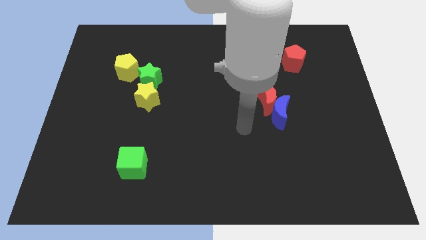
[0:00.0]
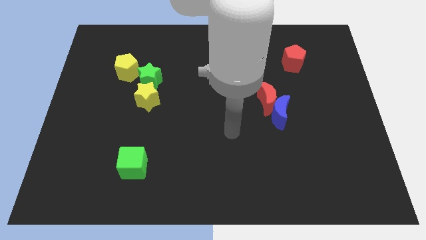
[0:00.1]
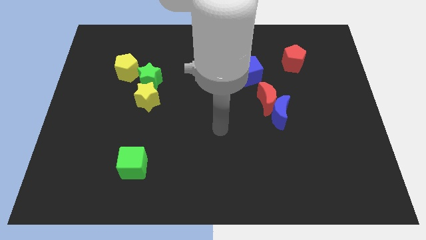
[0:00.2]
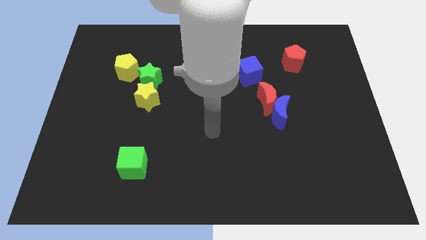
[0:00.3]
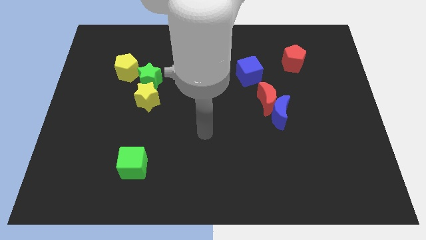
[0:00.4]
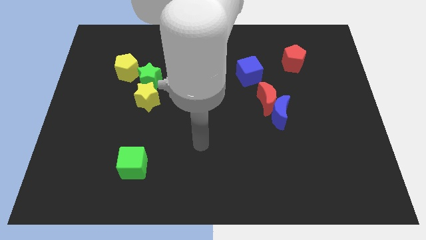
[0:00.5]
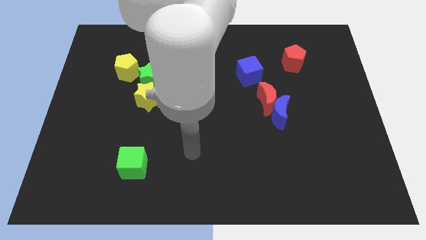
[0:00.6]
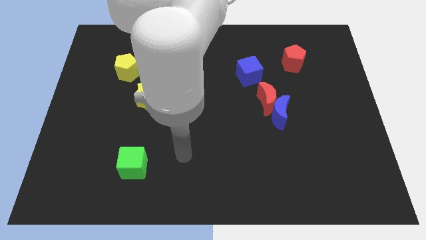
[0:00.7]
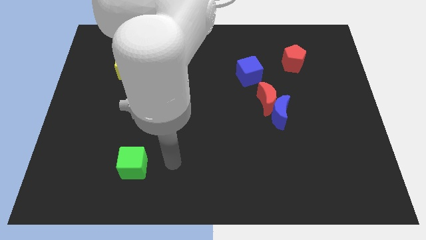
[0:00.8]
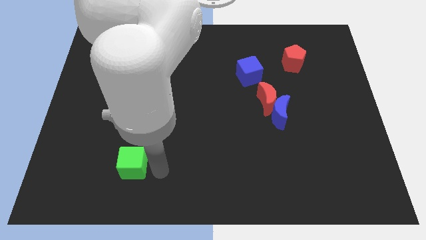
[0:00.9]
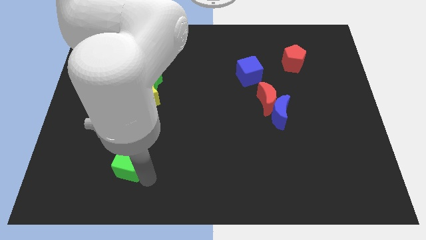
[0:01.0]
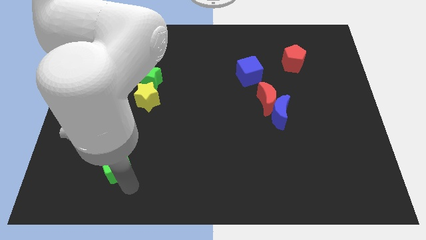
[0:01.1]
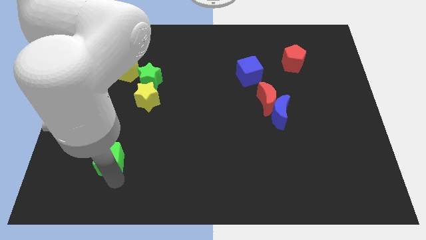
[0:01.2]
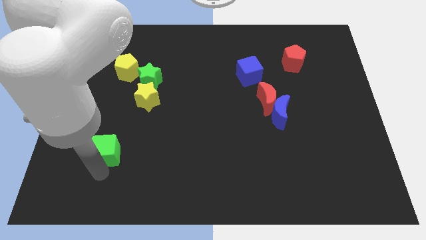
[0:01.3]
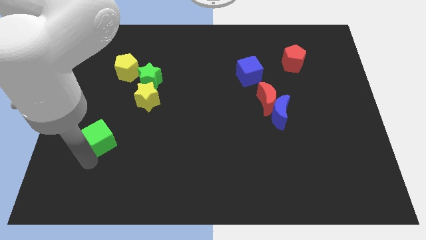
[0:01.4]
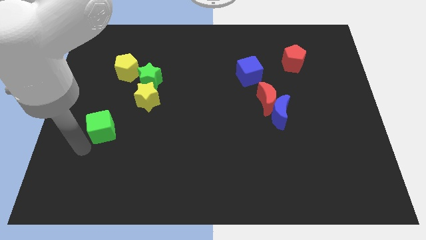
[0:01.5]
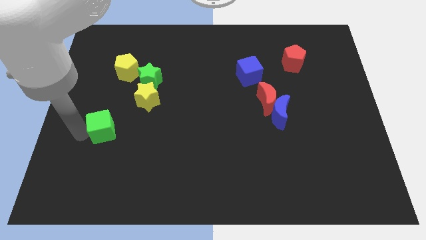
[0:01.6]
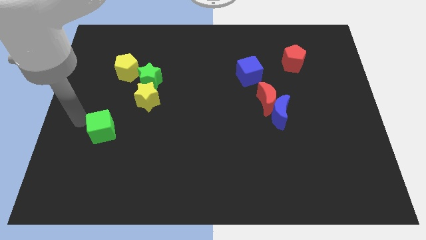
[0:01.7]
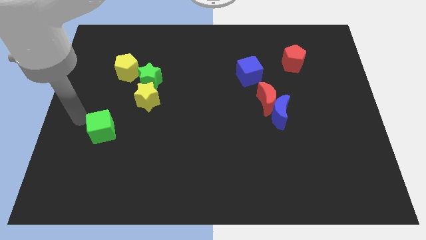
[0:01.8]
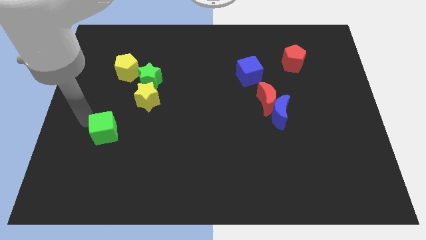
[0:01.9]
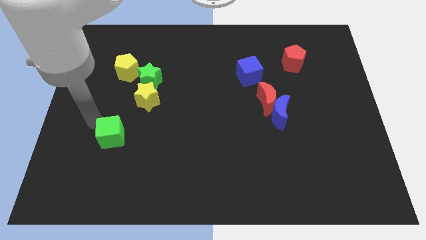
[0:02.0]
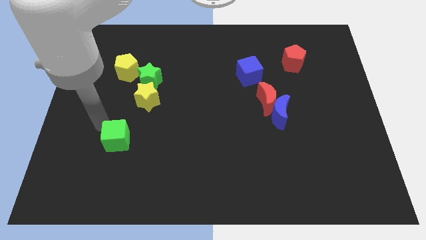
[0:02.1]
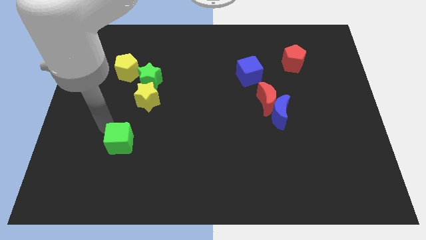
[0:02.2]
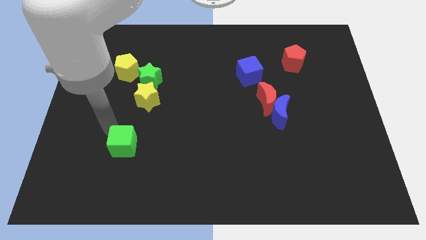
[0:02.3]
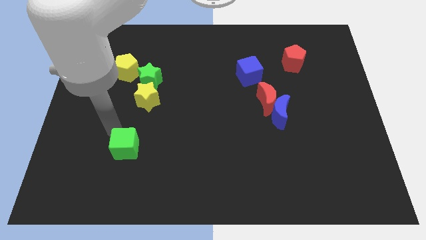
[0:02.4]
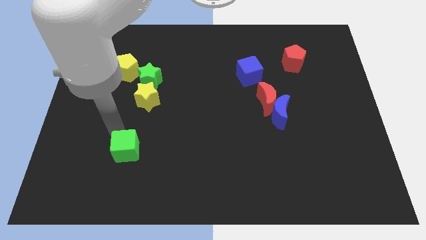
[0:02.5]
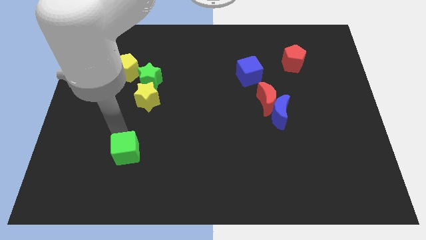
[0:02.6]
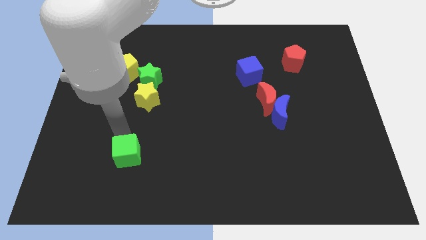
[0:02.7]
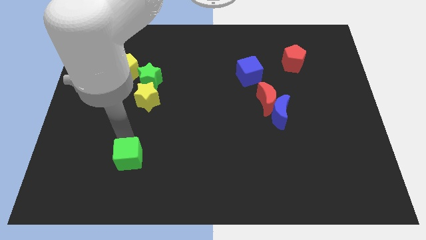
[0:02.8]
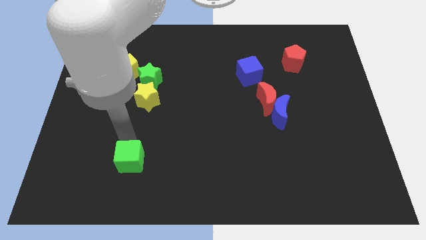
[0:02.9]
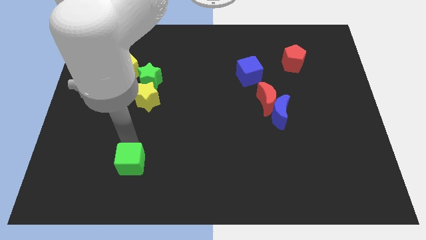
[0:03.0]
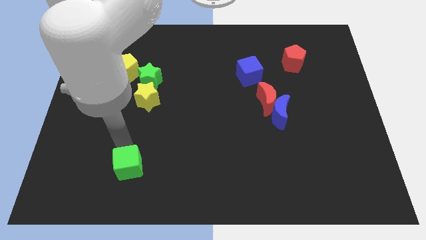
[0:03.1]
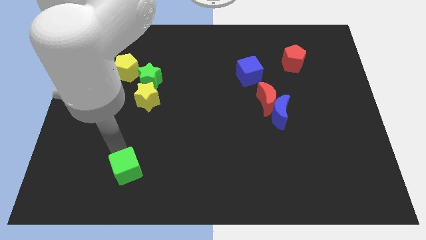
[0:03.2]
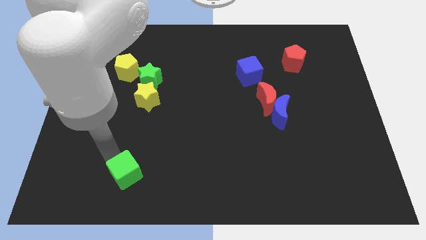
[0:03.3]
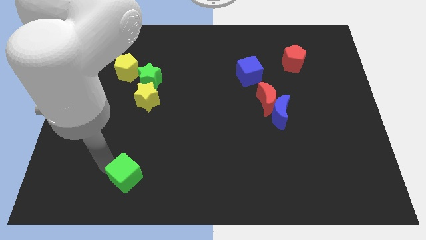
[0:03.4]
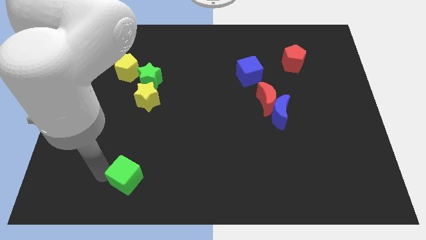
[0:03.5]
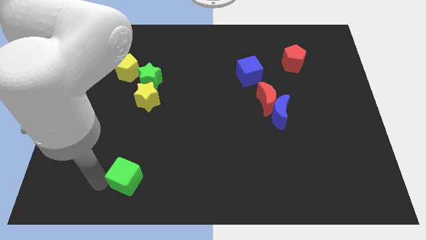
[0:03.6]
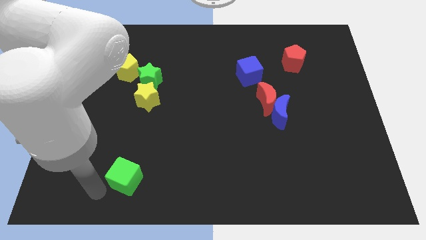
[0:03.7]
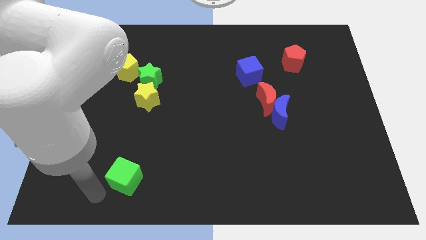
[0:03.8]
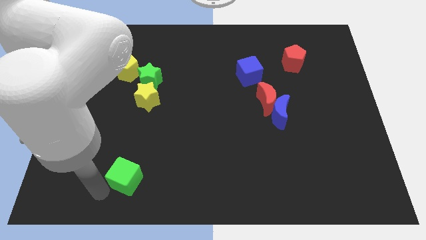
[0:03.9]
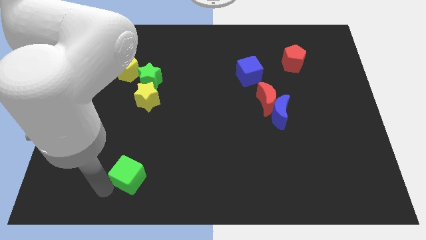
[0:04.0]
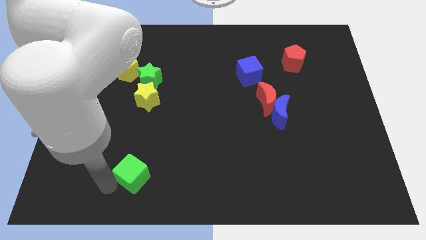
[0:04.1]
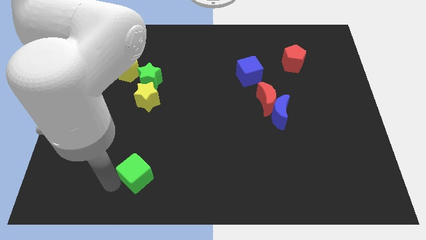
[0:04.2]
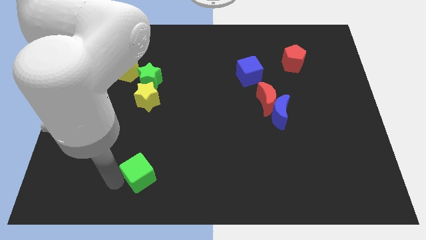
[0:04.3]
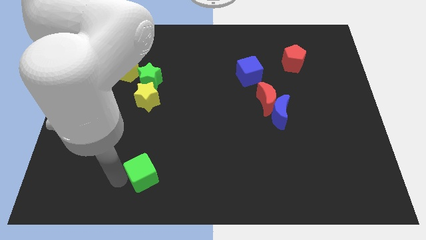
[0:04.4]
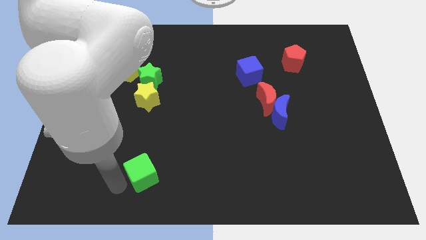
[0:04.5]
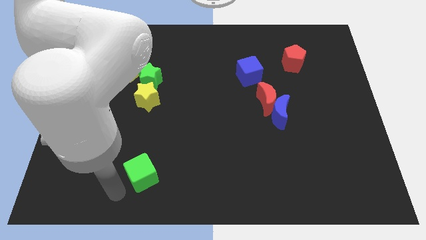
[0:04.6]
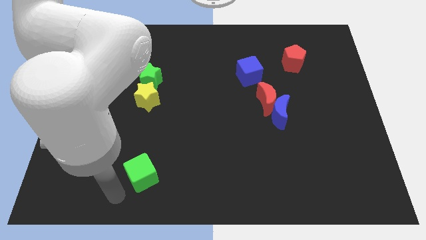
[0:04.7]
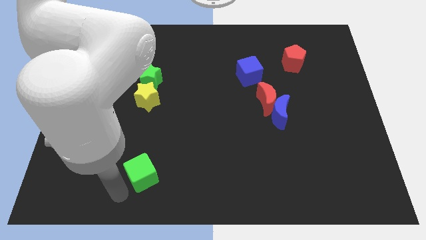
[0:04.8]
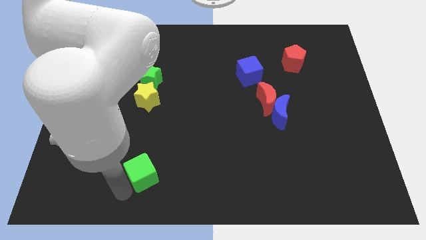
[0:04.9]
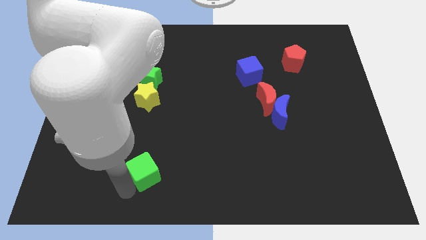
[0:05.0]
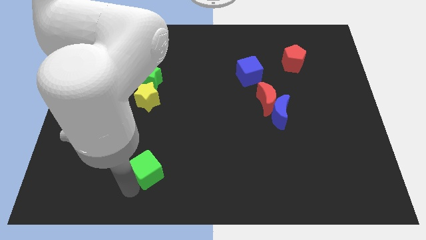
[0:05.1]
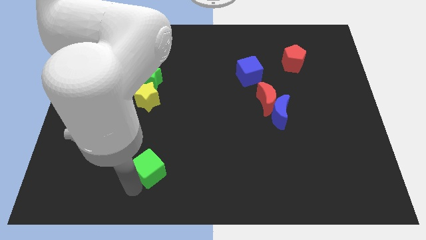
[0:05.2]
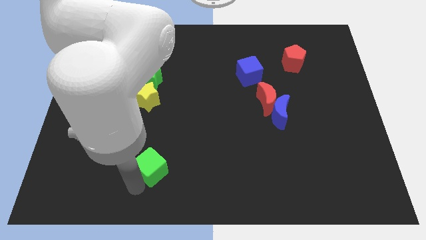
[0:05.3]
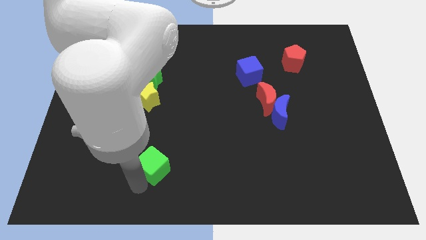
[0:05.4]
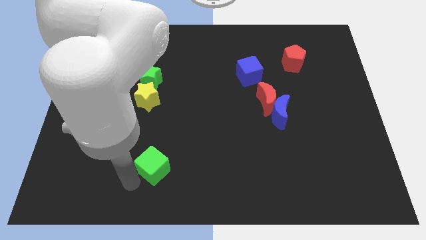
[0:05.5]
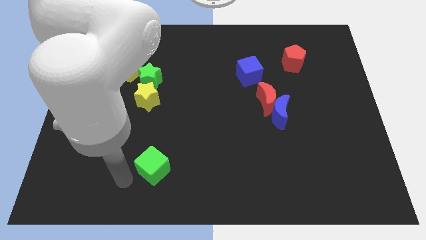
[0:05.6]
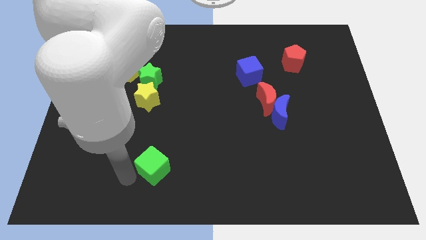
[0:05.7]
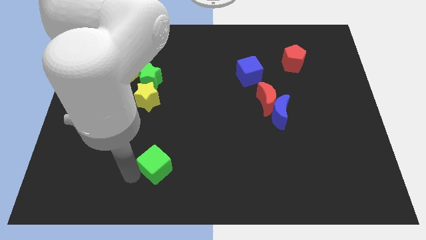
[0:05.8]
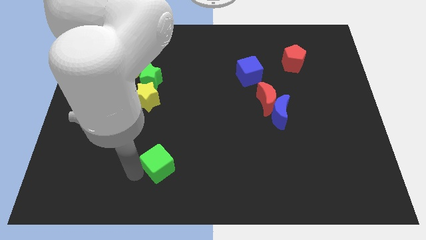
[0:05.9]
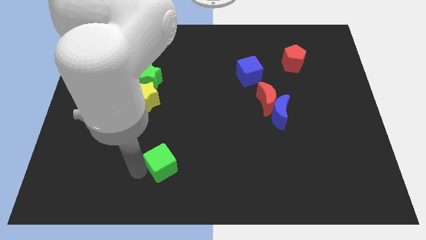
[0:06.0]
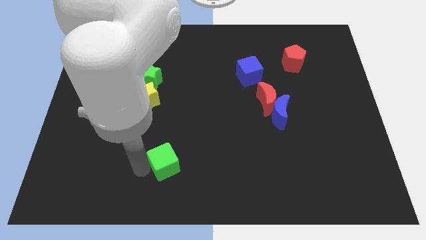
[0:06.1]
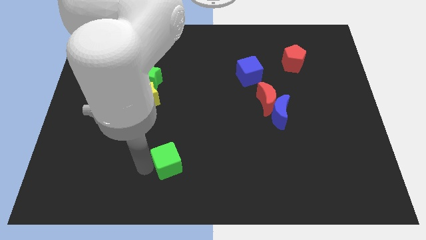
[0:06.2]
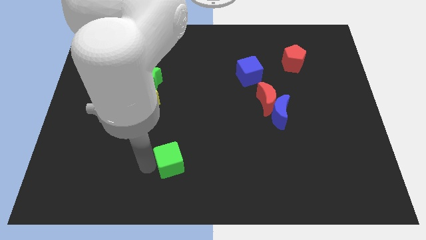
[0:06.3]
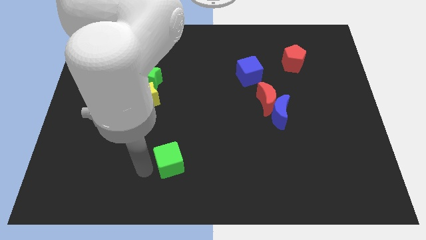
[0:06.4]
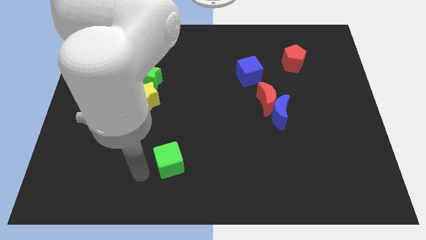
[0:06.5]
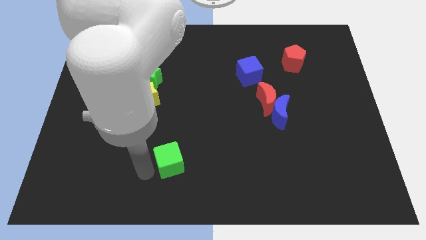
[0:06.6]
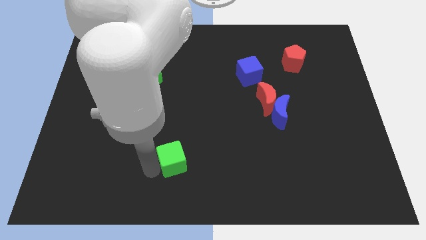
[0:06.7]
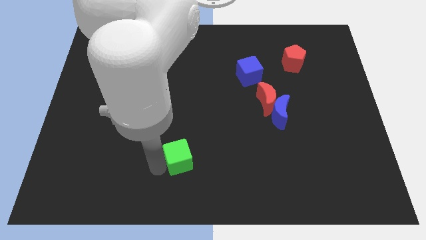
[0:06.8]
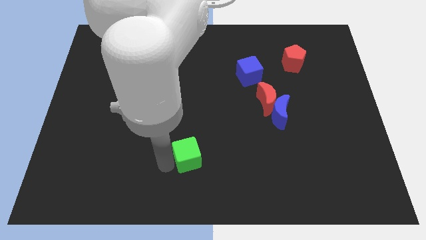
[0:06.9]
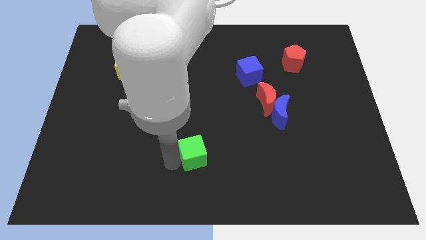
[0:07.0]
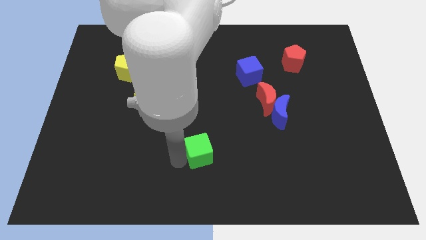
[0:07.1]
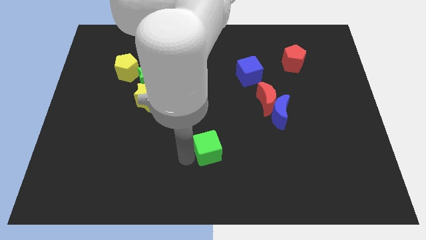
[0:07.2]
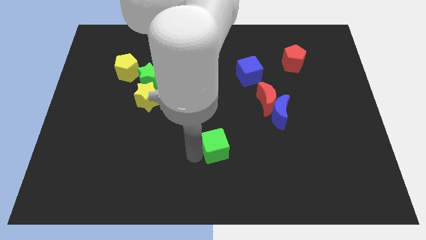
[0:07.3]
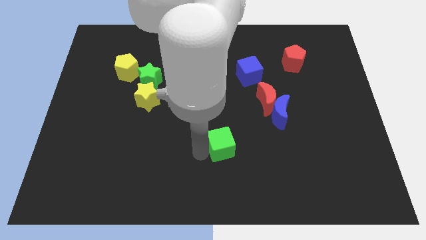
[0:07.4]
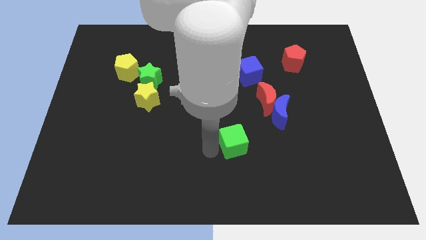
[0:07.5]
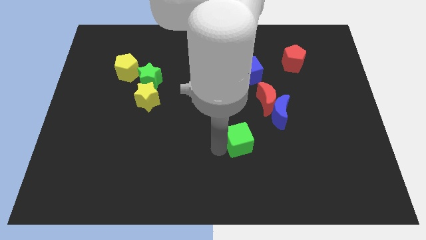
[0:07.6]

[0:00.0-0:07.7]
push the green cube to the bottom left of the blue moon
